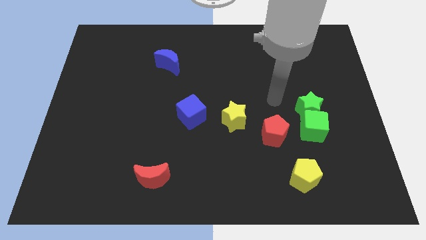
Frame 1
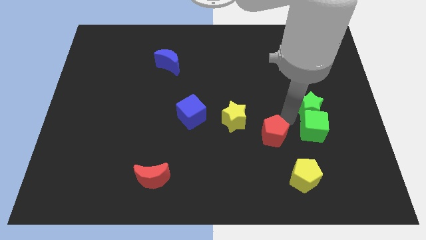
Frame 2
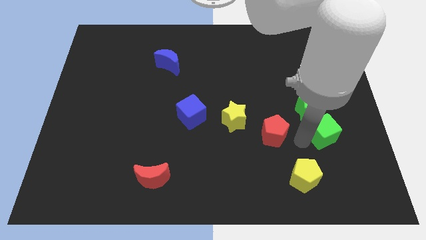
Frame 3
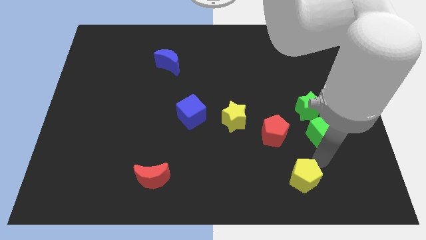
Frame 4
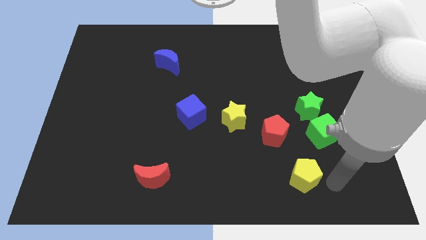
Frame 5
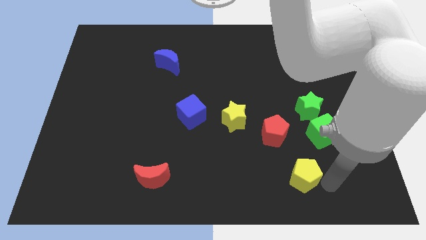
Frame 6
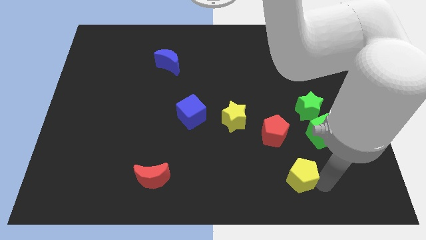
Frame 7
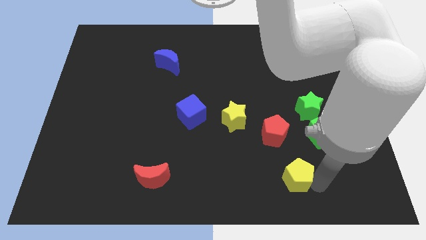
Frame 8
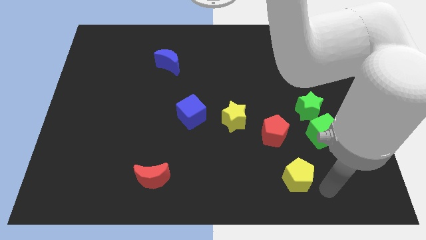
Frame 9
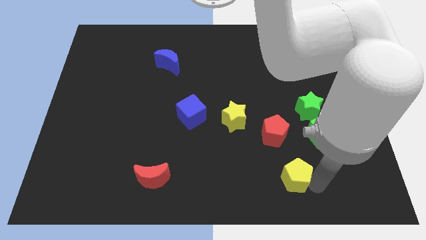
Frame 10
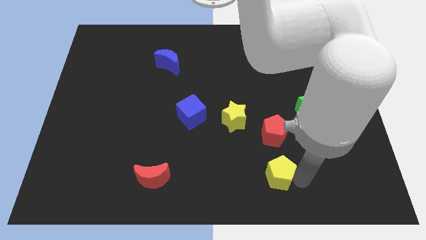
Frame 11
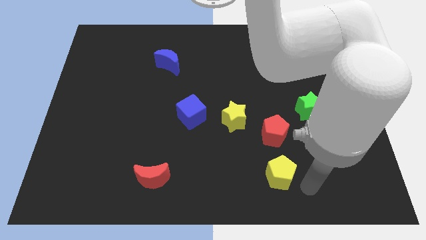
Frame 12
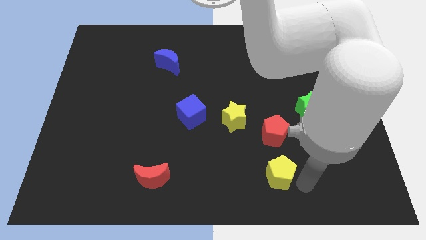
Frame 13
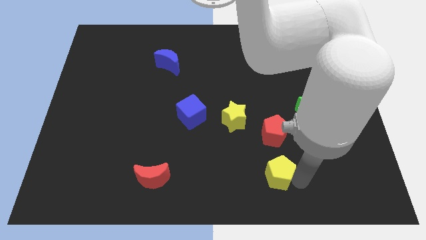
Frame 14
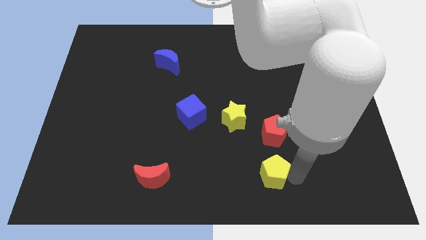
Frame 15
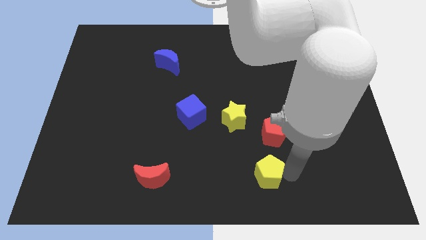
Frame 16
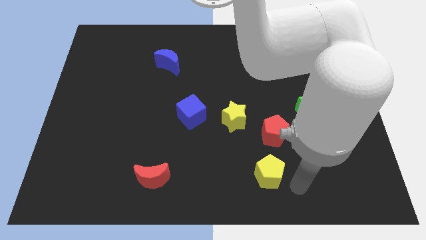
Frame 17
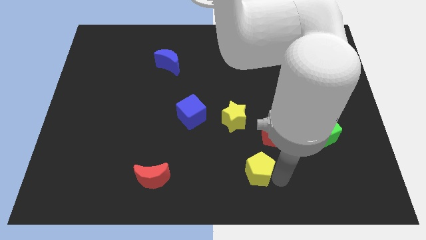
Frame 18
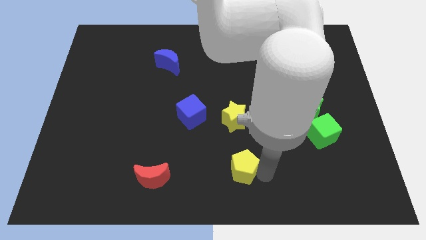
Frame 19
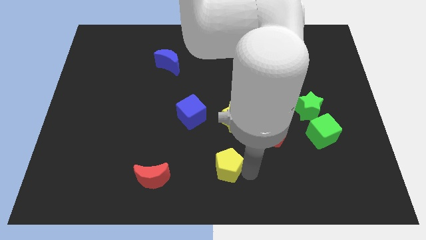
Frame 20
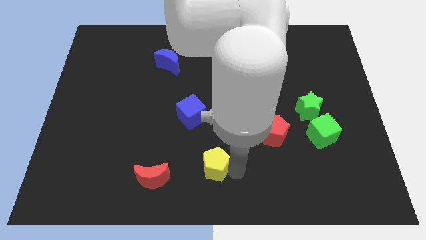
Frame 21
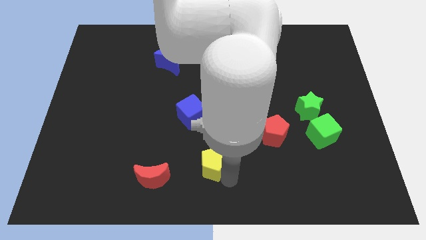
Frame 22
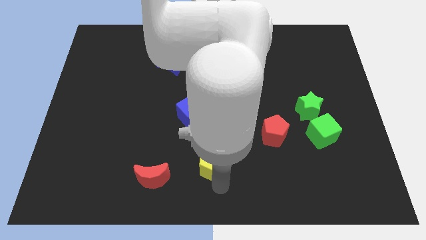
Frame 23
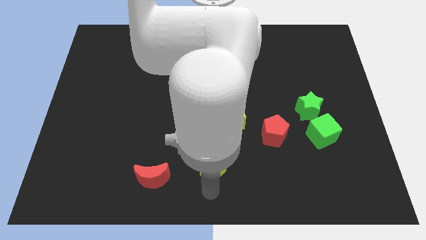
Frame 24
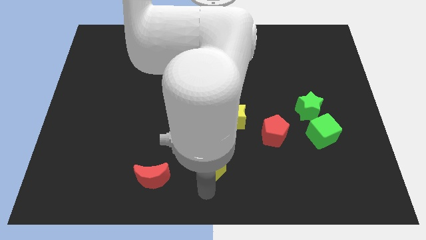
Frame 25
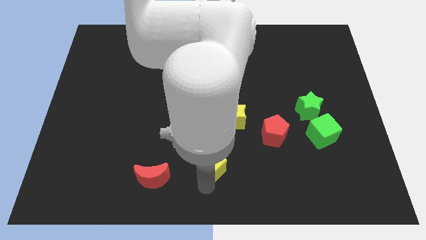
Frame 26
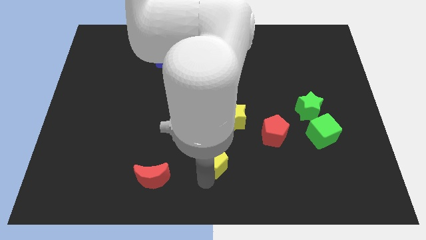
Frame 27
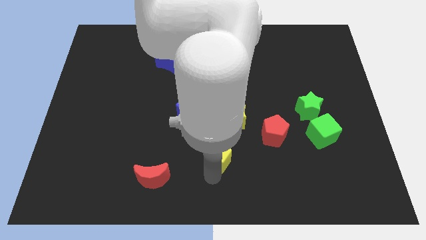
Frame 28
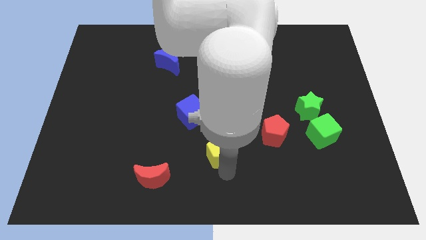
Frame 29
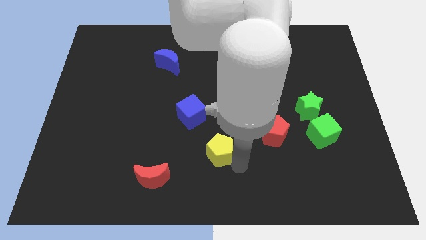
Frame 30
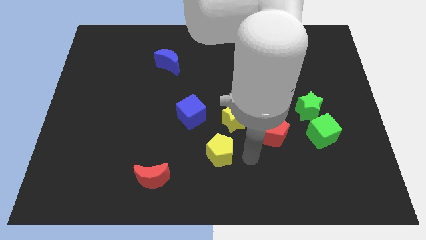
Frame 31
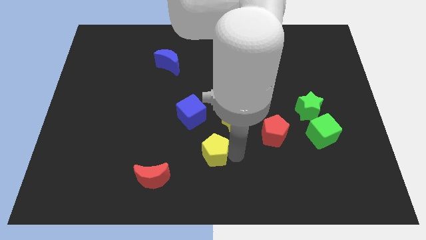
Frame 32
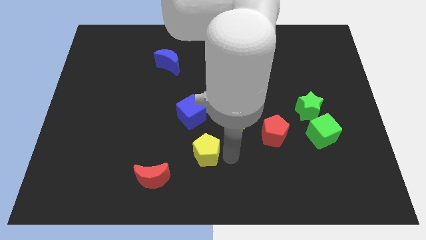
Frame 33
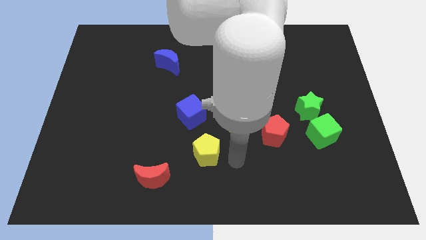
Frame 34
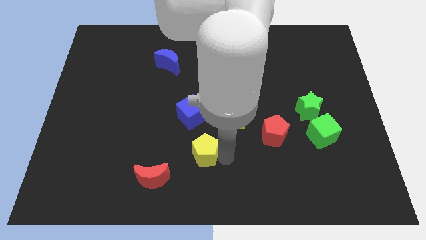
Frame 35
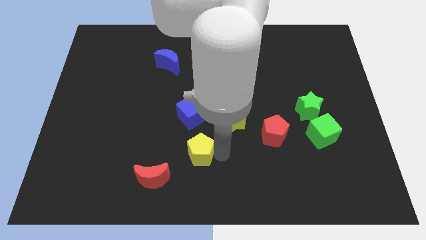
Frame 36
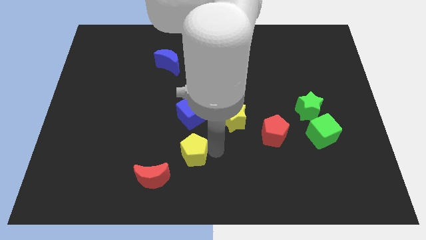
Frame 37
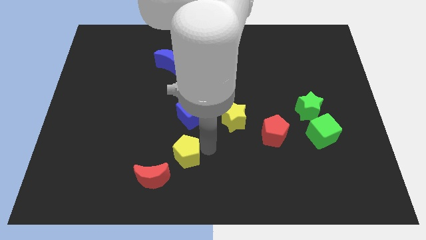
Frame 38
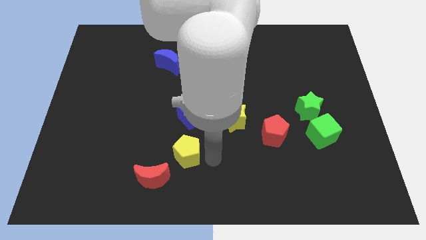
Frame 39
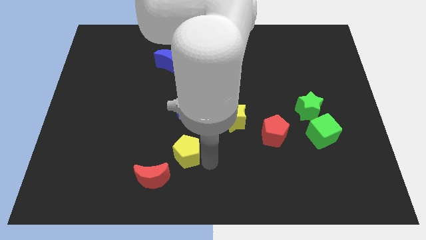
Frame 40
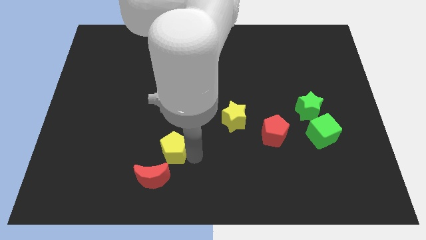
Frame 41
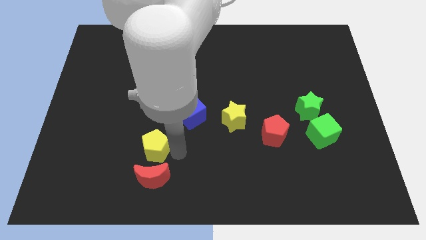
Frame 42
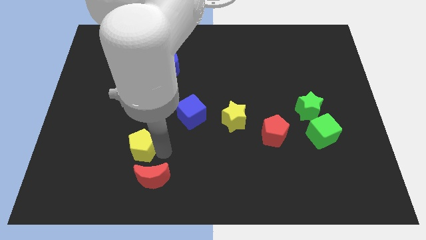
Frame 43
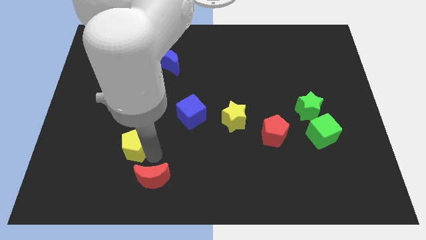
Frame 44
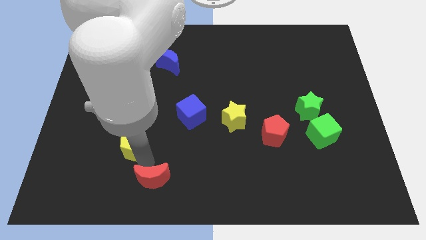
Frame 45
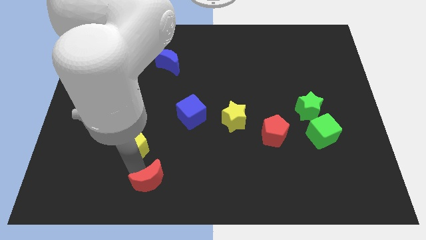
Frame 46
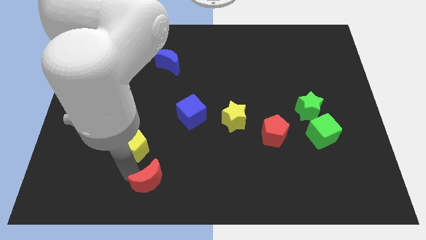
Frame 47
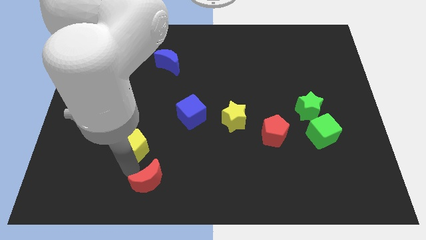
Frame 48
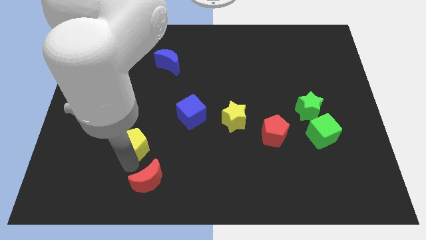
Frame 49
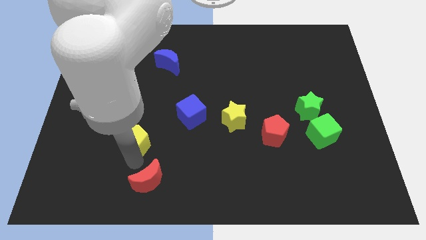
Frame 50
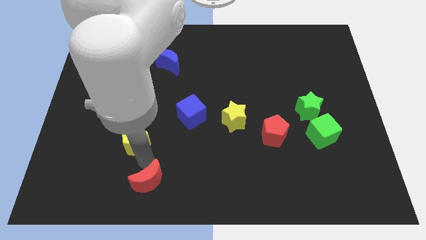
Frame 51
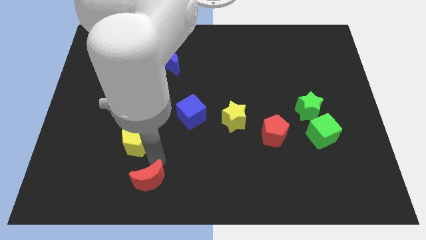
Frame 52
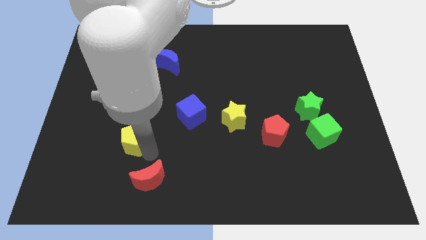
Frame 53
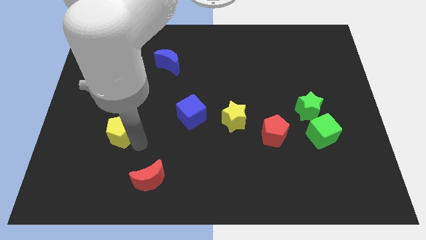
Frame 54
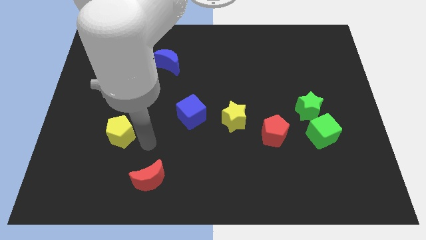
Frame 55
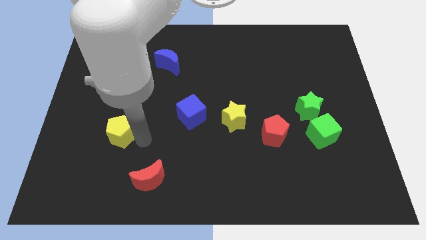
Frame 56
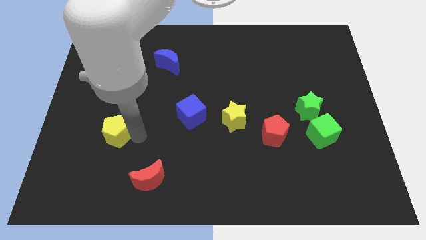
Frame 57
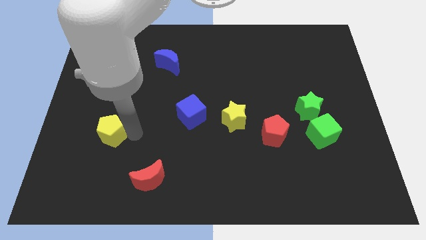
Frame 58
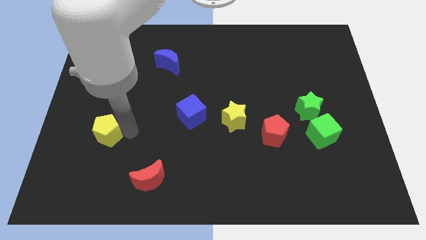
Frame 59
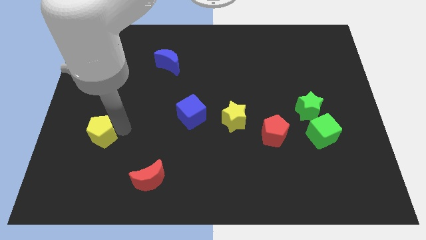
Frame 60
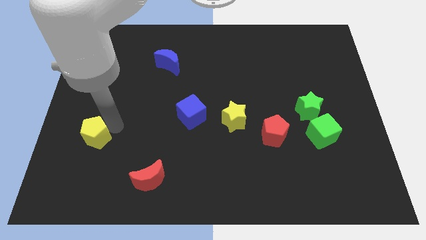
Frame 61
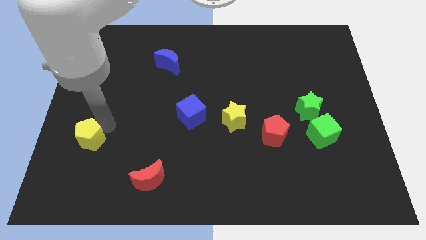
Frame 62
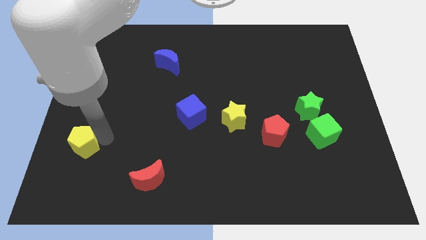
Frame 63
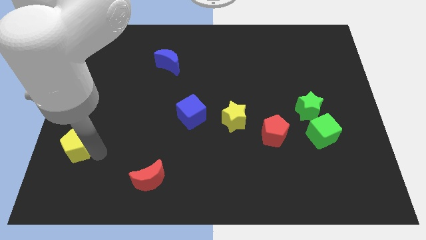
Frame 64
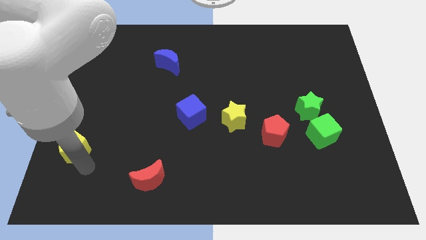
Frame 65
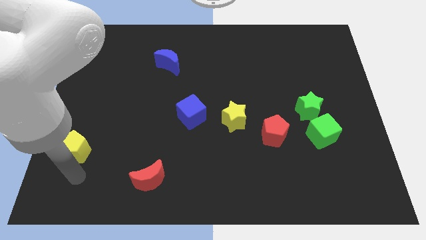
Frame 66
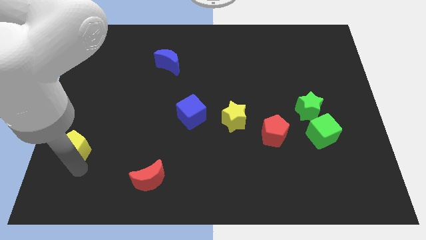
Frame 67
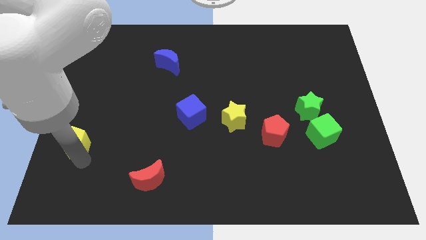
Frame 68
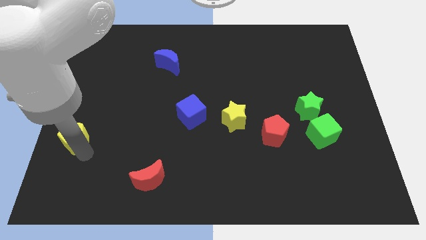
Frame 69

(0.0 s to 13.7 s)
put the yellow pentagon to the center left
